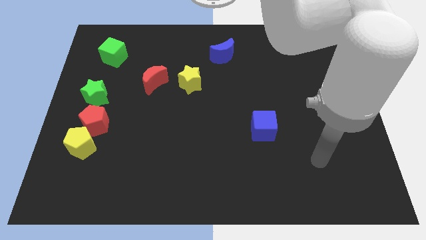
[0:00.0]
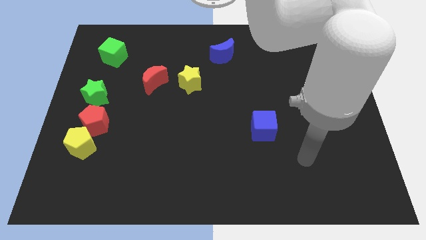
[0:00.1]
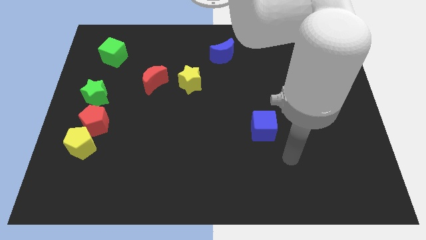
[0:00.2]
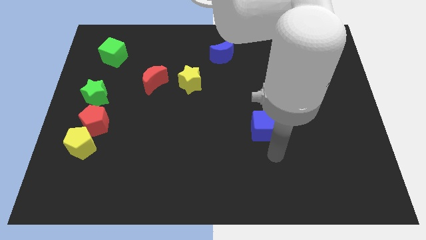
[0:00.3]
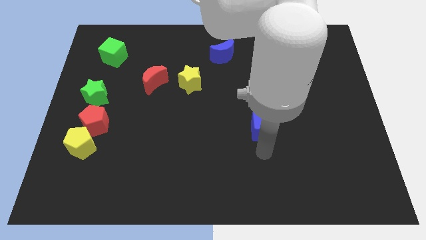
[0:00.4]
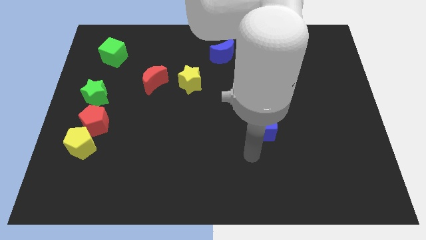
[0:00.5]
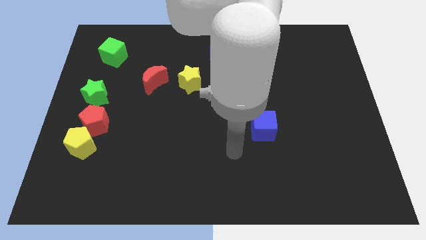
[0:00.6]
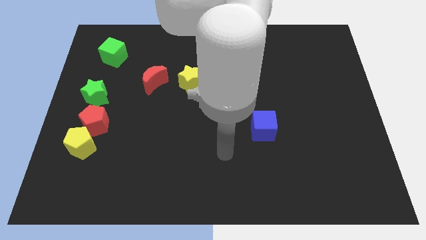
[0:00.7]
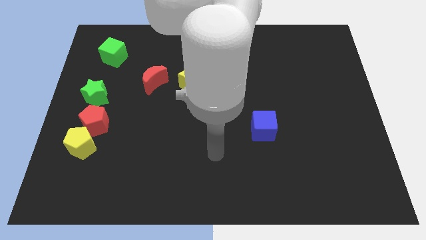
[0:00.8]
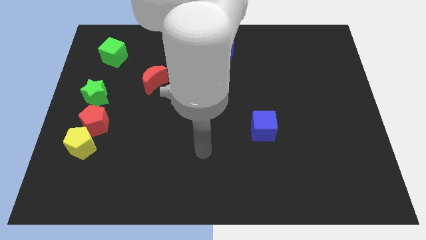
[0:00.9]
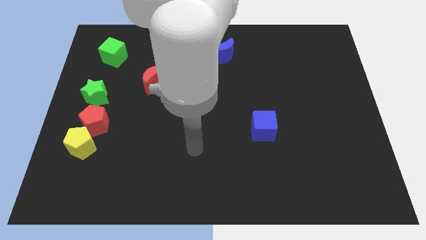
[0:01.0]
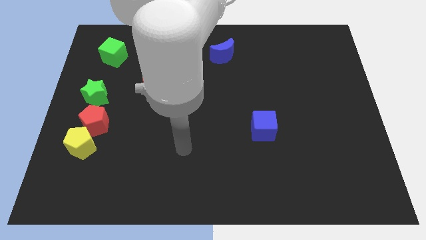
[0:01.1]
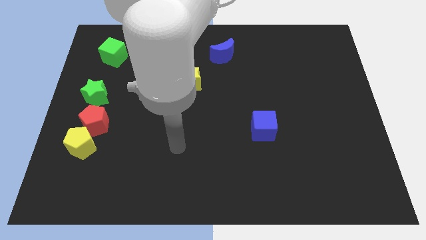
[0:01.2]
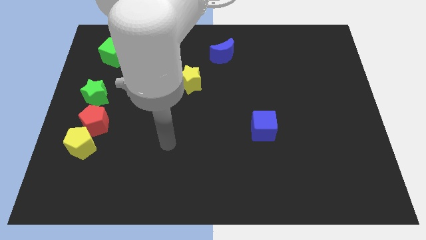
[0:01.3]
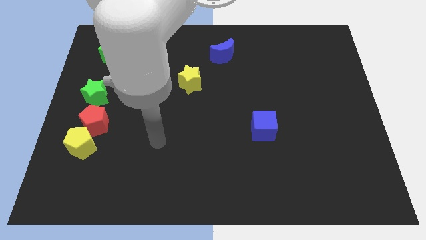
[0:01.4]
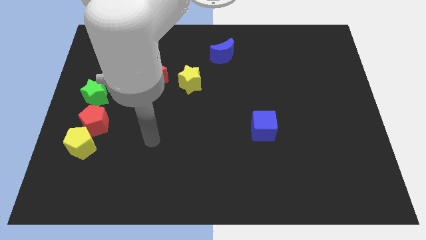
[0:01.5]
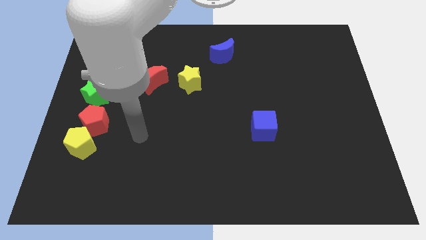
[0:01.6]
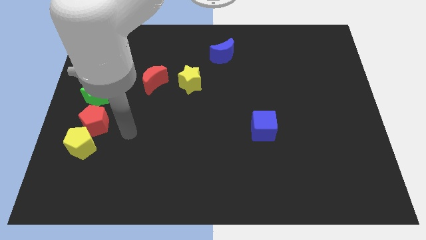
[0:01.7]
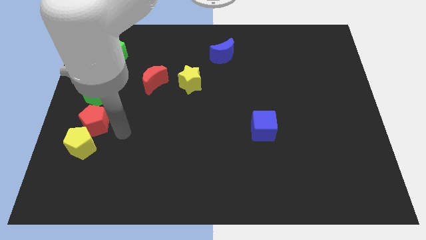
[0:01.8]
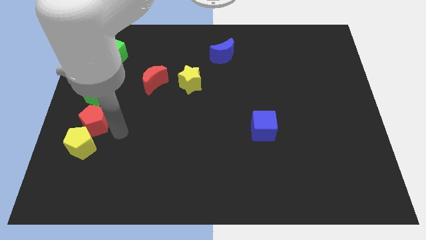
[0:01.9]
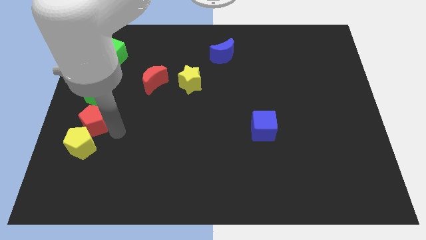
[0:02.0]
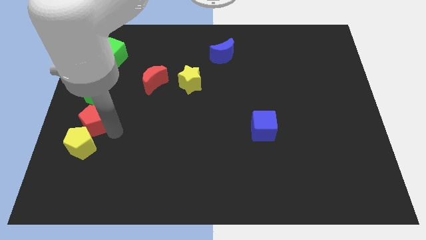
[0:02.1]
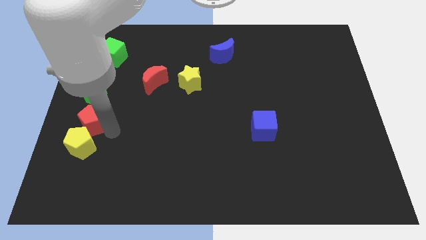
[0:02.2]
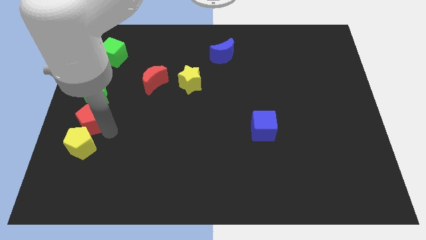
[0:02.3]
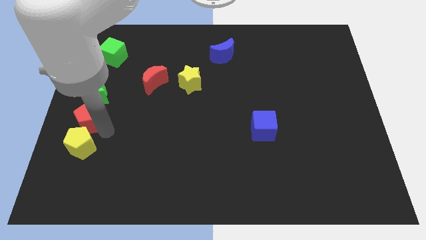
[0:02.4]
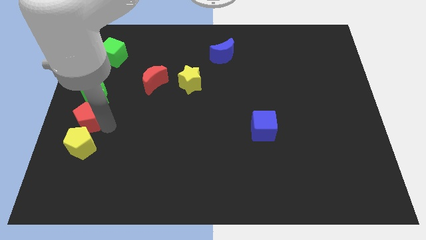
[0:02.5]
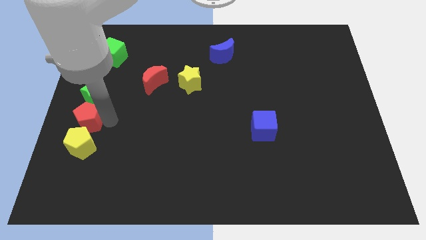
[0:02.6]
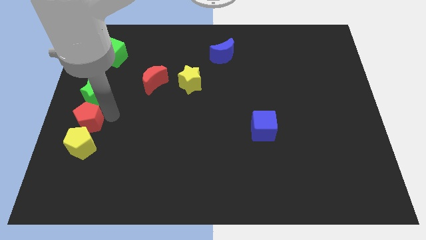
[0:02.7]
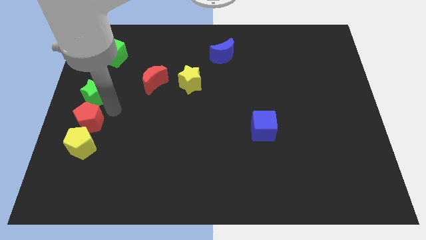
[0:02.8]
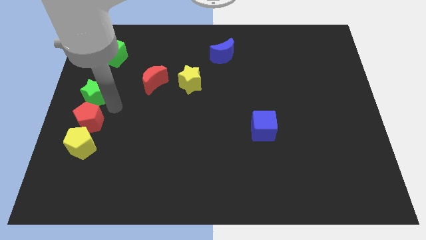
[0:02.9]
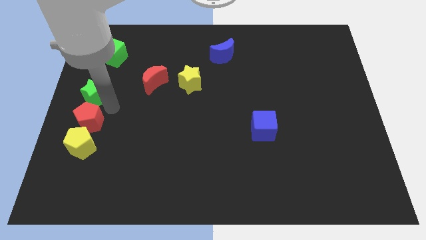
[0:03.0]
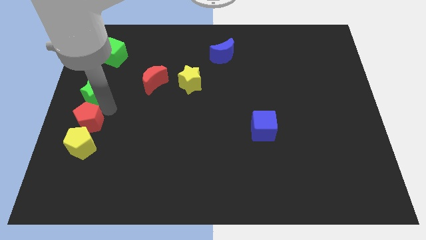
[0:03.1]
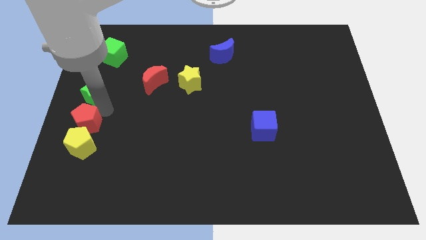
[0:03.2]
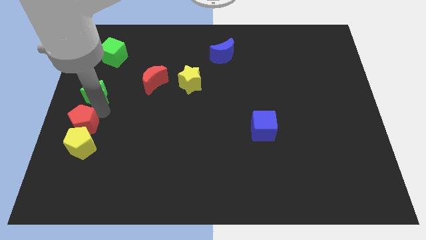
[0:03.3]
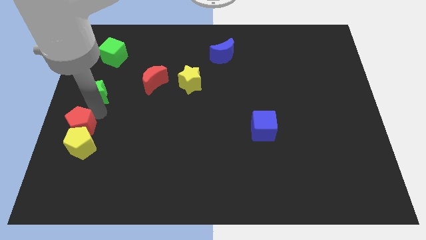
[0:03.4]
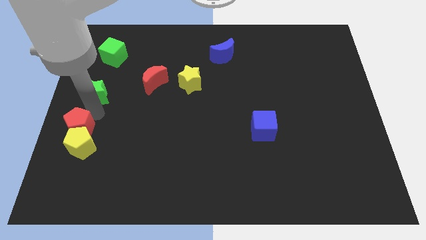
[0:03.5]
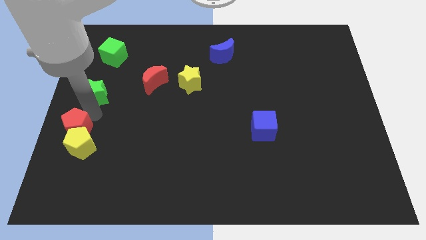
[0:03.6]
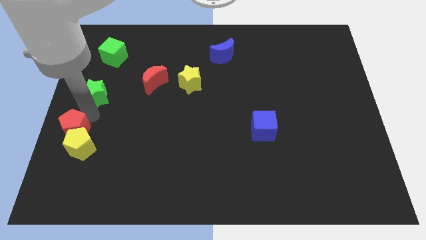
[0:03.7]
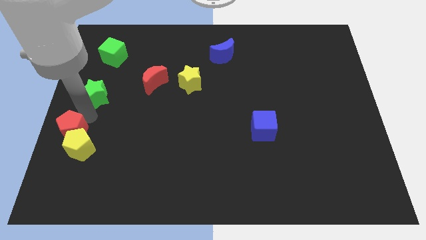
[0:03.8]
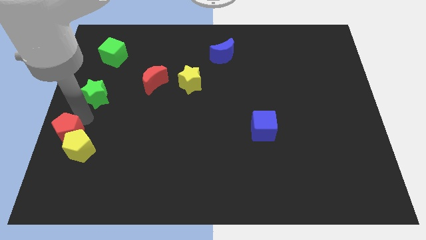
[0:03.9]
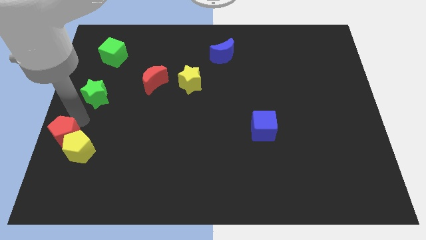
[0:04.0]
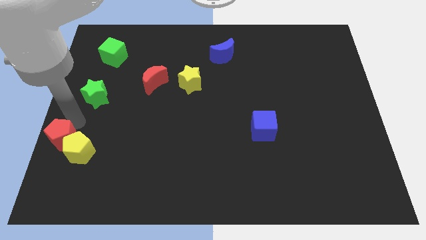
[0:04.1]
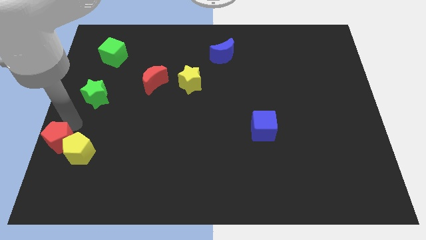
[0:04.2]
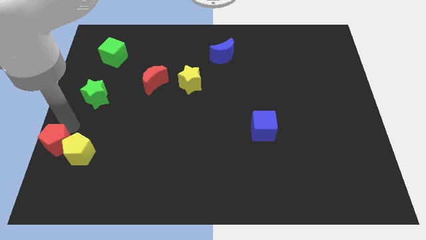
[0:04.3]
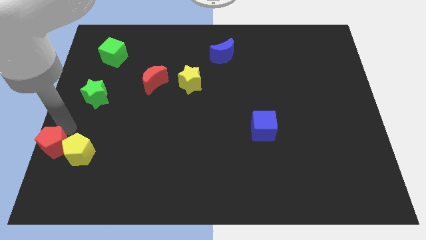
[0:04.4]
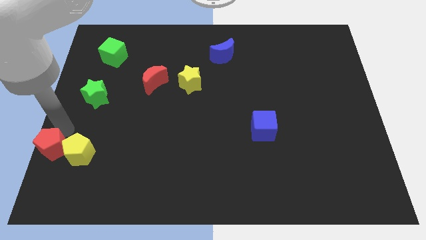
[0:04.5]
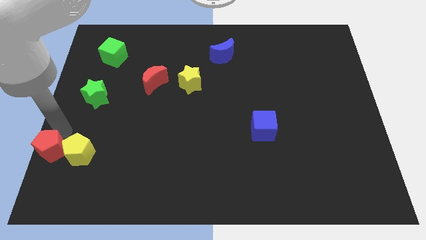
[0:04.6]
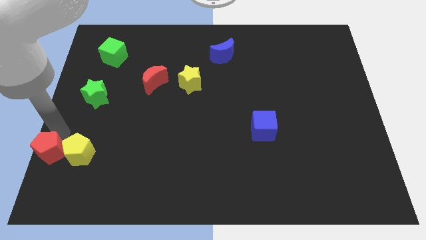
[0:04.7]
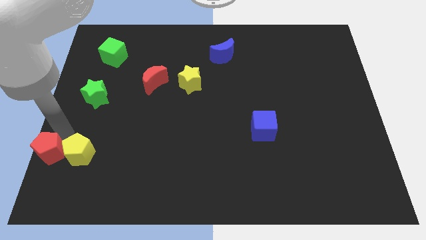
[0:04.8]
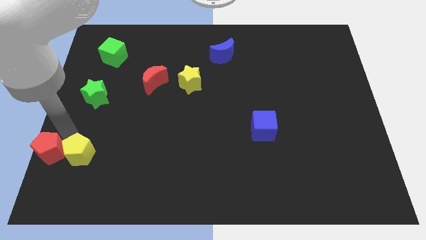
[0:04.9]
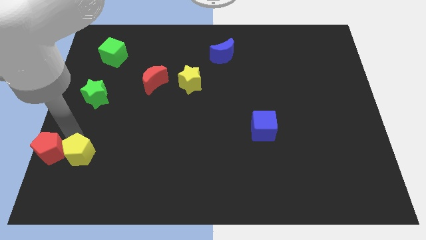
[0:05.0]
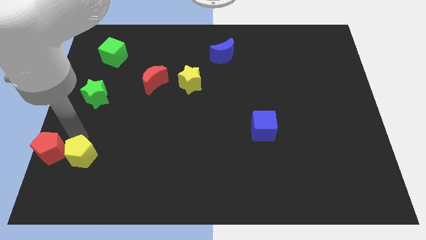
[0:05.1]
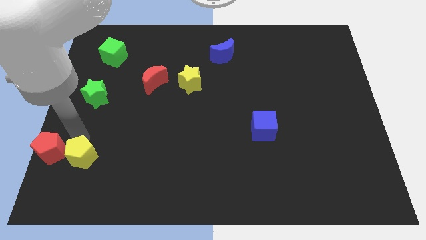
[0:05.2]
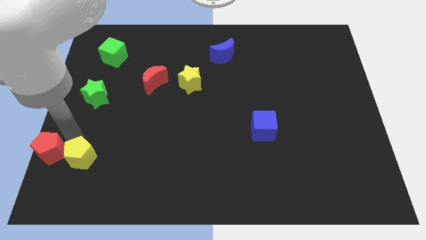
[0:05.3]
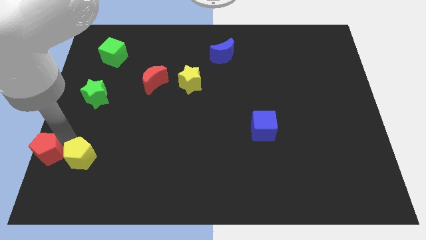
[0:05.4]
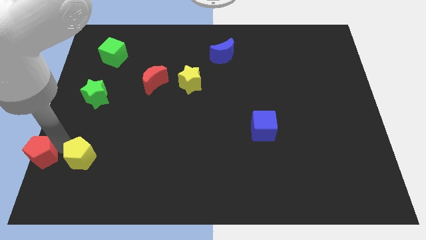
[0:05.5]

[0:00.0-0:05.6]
push the red pentagon to the bottom left

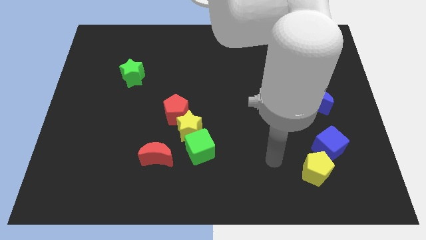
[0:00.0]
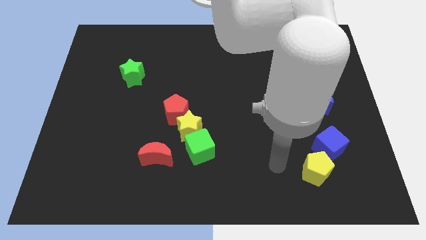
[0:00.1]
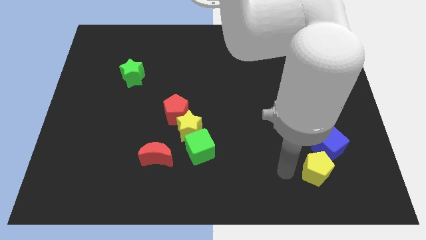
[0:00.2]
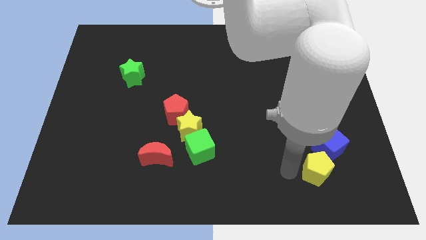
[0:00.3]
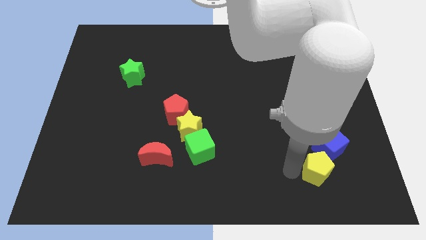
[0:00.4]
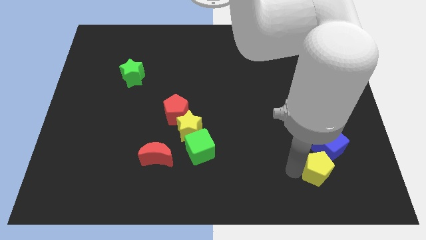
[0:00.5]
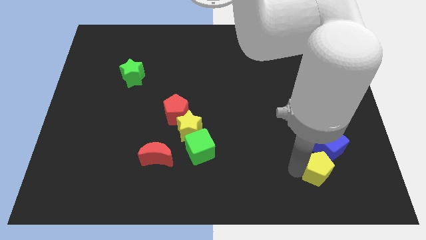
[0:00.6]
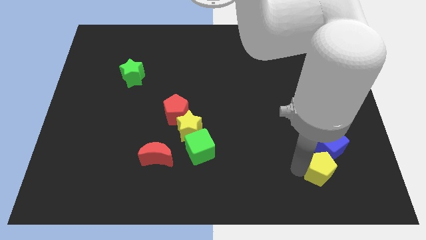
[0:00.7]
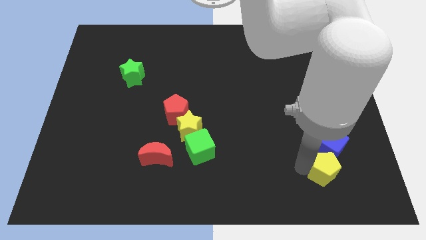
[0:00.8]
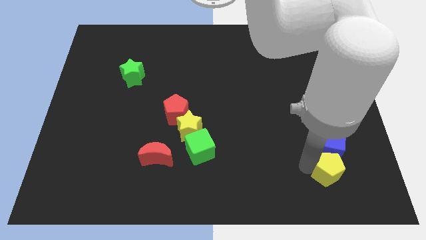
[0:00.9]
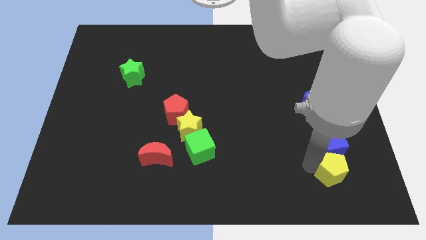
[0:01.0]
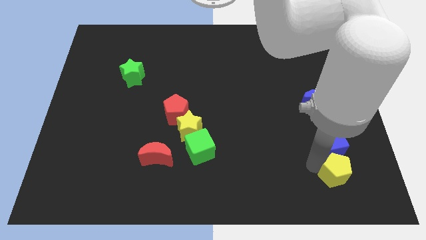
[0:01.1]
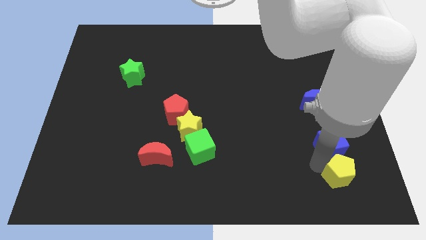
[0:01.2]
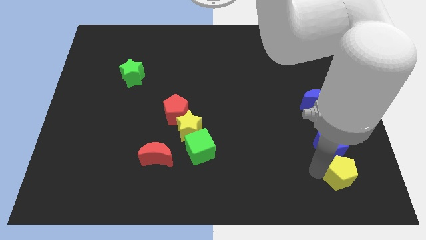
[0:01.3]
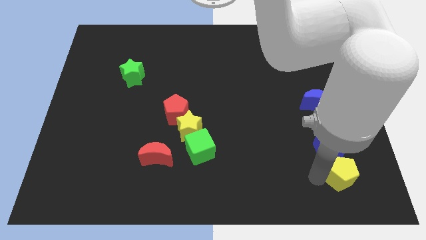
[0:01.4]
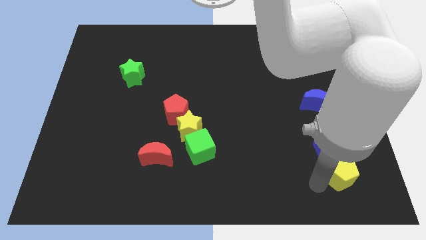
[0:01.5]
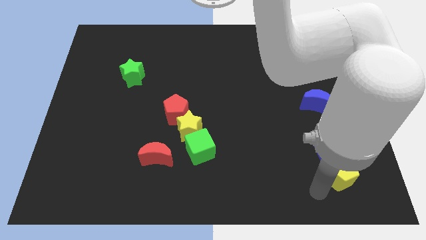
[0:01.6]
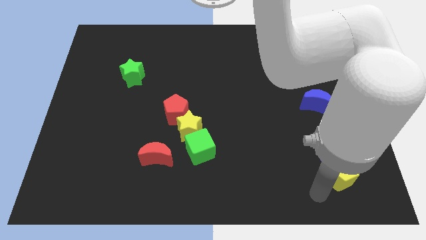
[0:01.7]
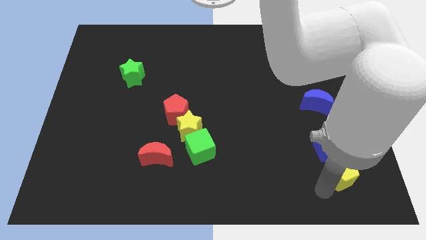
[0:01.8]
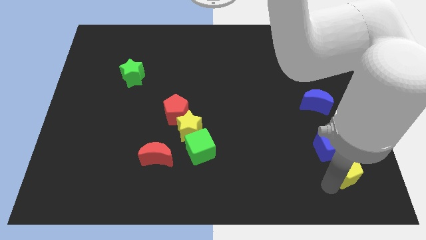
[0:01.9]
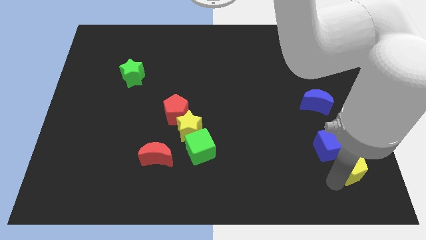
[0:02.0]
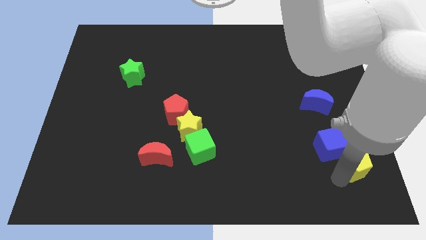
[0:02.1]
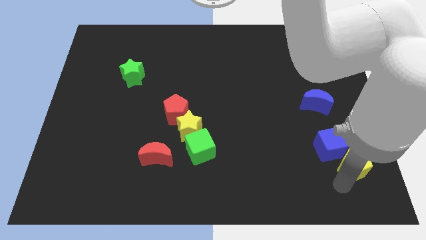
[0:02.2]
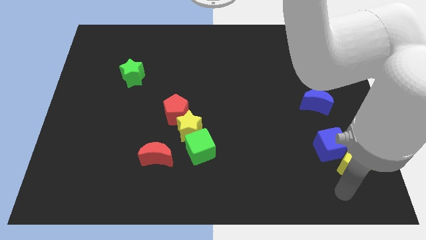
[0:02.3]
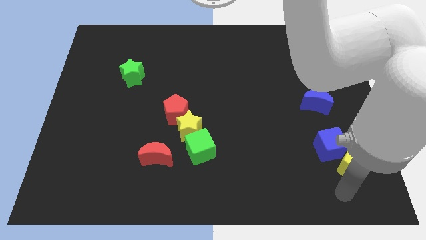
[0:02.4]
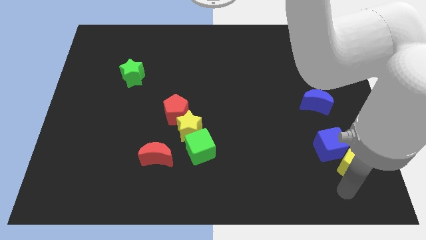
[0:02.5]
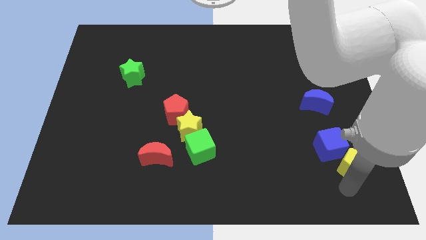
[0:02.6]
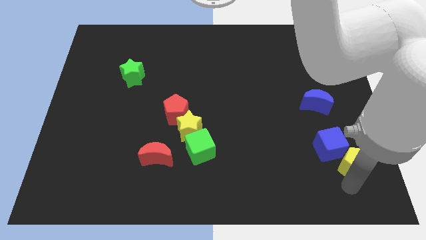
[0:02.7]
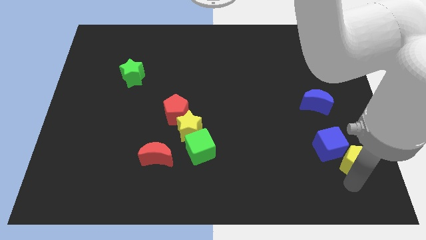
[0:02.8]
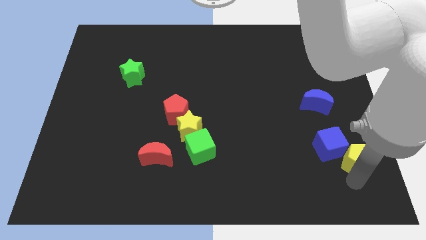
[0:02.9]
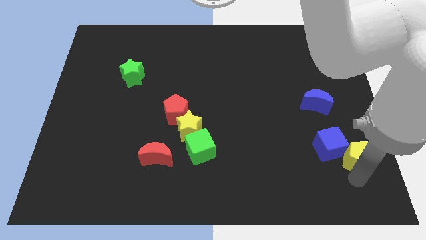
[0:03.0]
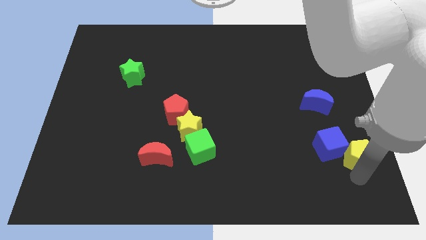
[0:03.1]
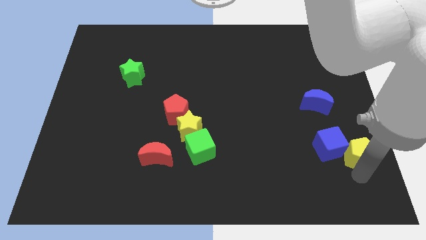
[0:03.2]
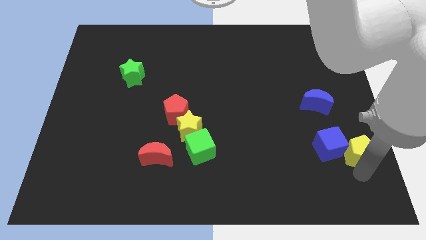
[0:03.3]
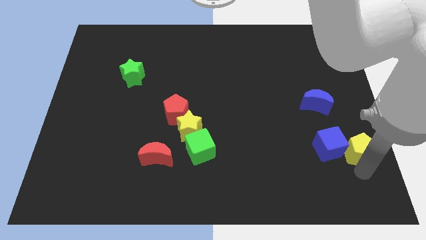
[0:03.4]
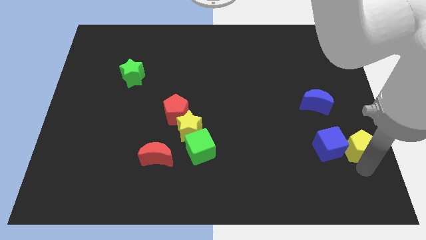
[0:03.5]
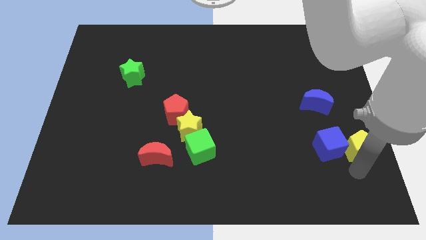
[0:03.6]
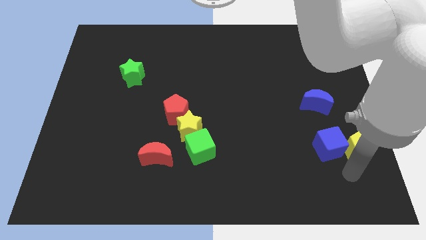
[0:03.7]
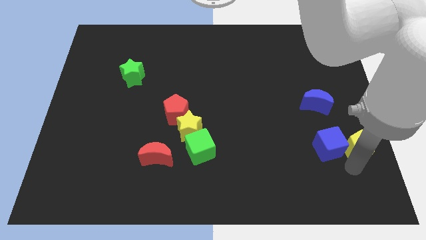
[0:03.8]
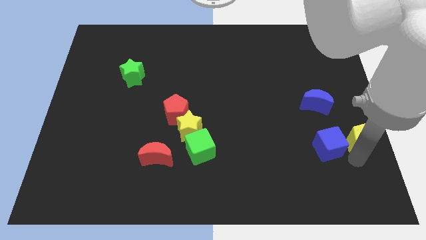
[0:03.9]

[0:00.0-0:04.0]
push the yellow pentagon to the center right
